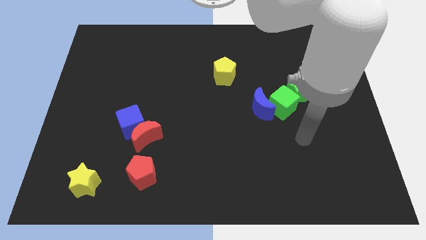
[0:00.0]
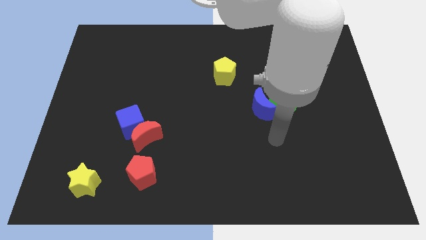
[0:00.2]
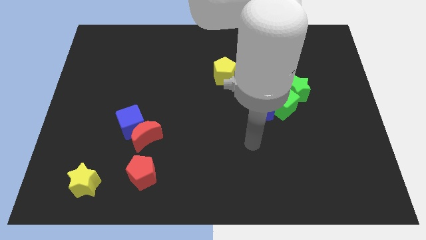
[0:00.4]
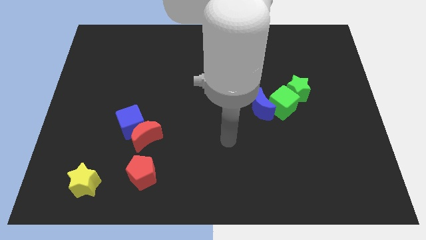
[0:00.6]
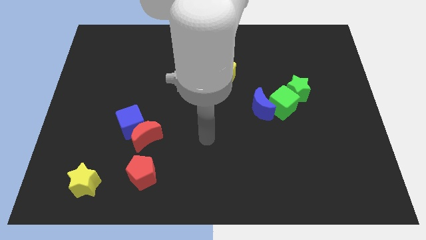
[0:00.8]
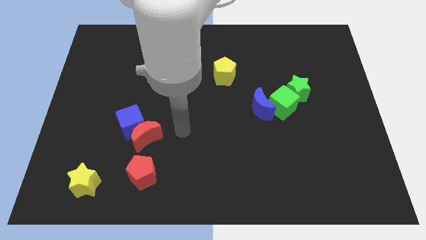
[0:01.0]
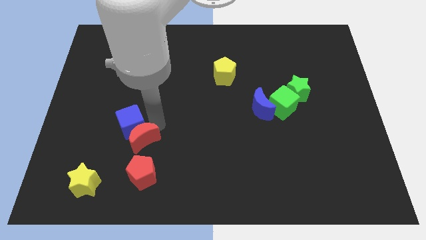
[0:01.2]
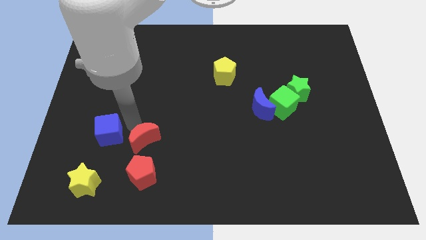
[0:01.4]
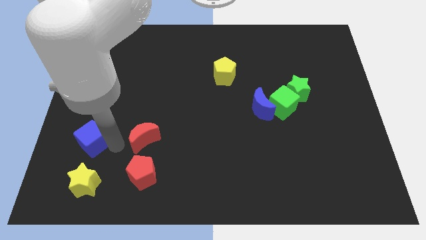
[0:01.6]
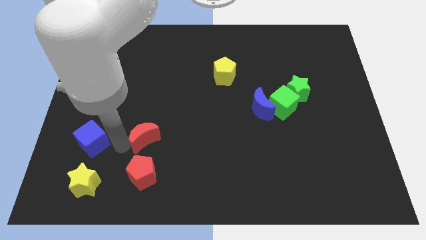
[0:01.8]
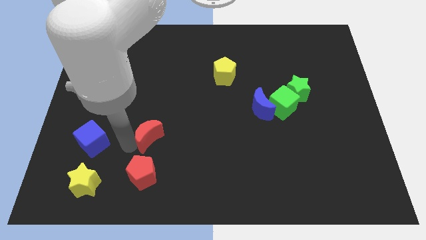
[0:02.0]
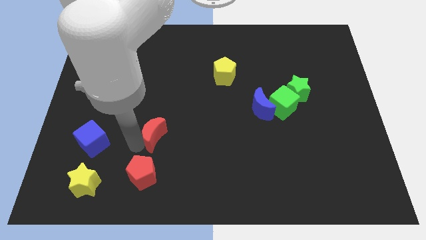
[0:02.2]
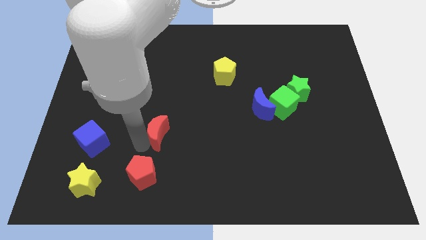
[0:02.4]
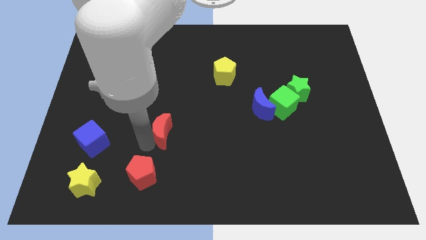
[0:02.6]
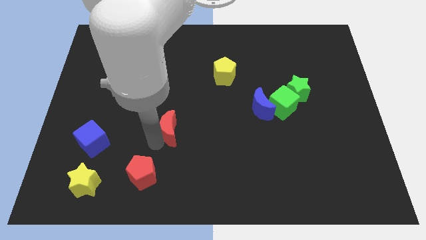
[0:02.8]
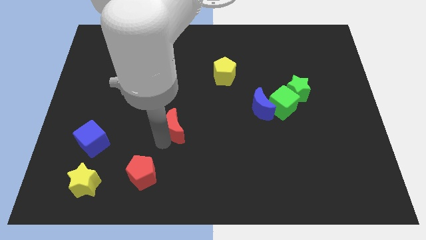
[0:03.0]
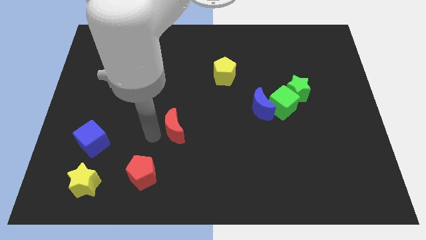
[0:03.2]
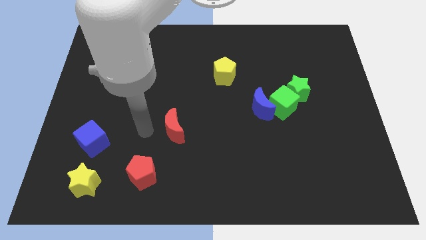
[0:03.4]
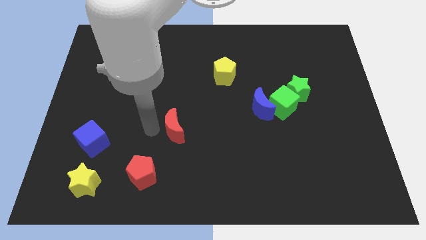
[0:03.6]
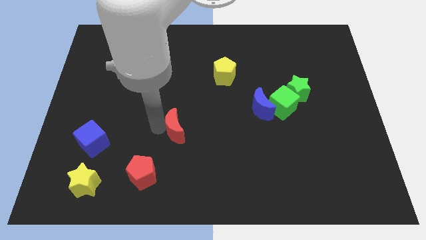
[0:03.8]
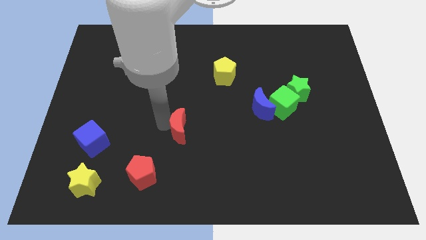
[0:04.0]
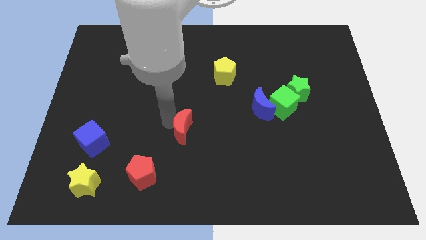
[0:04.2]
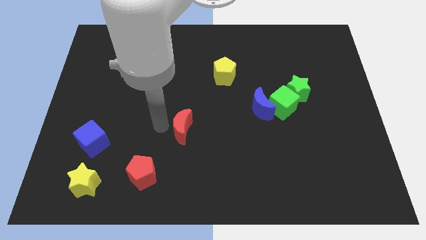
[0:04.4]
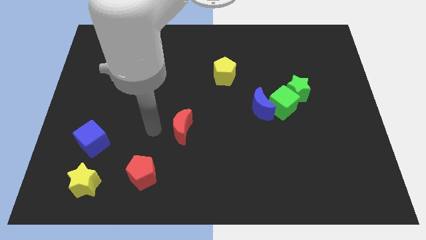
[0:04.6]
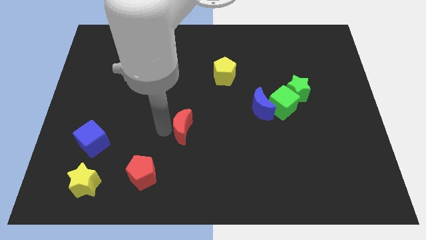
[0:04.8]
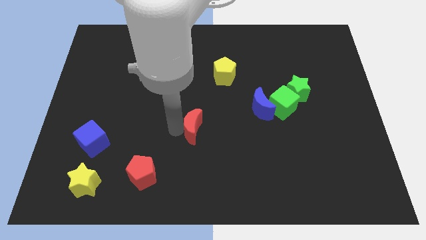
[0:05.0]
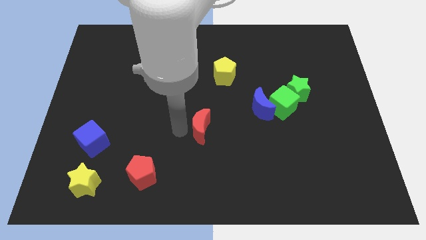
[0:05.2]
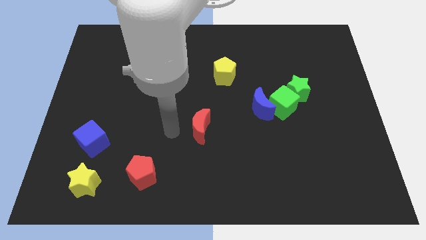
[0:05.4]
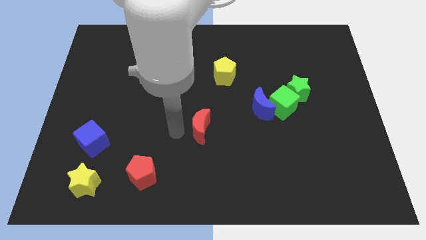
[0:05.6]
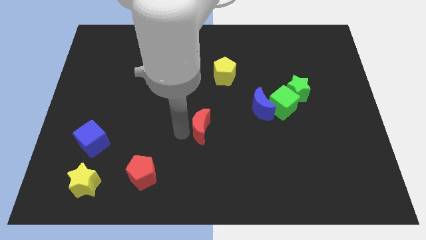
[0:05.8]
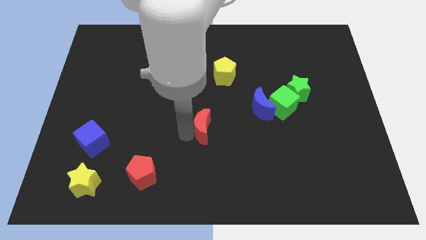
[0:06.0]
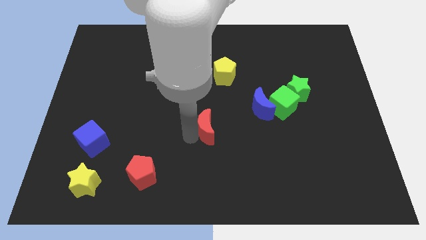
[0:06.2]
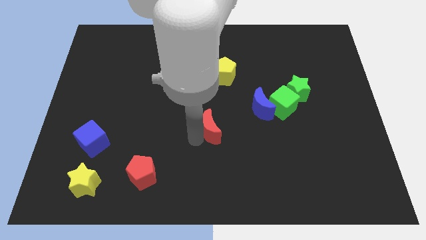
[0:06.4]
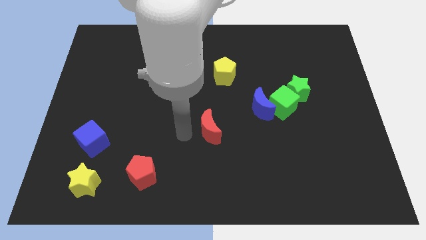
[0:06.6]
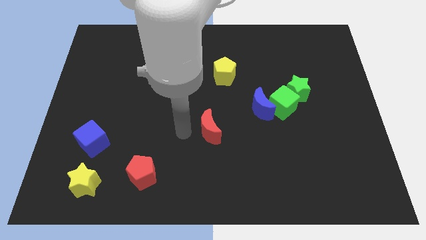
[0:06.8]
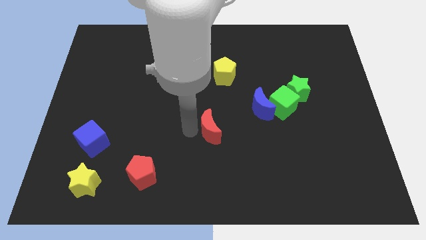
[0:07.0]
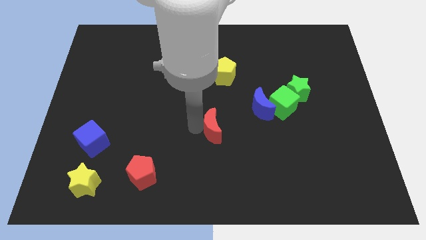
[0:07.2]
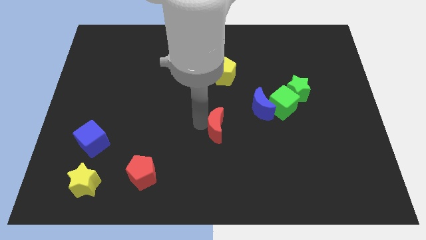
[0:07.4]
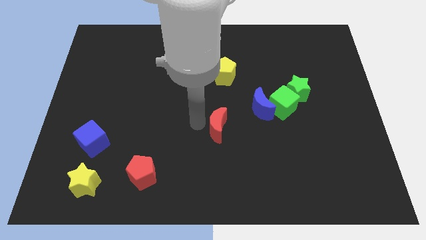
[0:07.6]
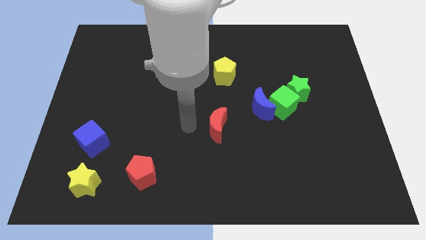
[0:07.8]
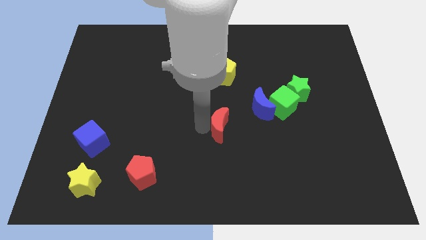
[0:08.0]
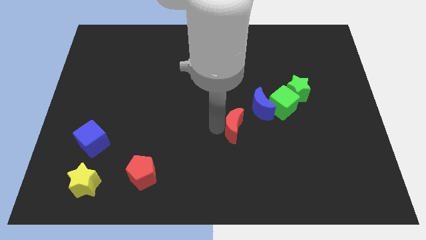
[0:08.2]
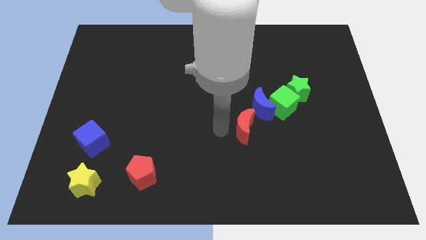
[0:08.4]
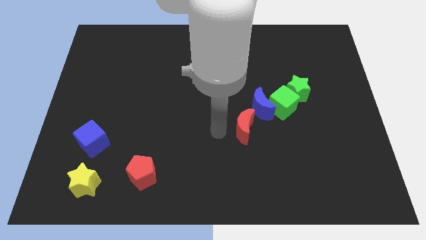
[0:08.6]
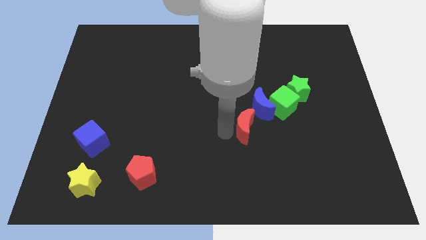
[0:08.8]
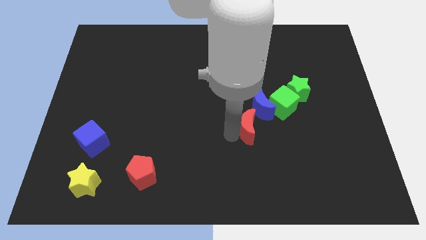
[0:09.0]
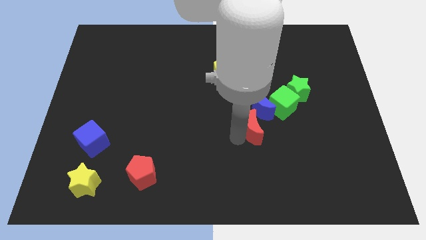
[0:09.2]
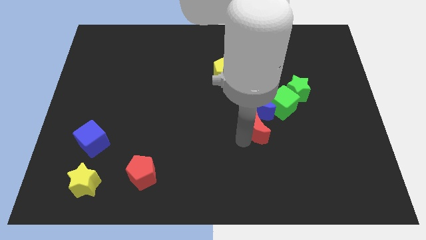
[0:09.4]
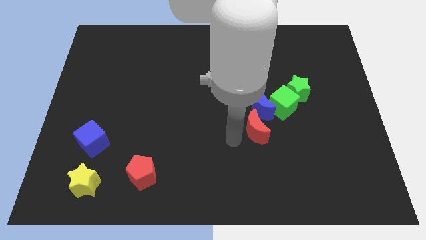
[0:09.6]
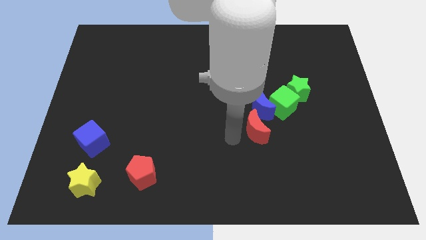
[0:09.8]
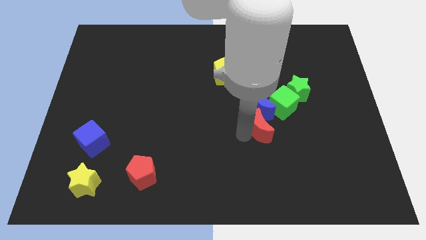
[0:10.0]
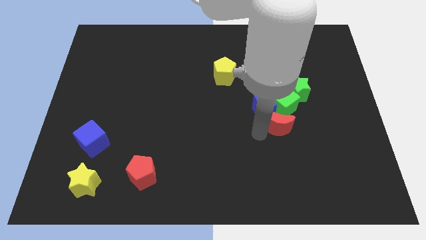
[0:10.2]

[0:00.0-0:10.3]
move the red moon towards the green cube
